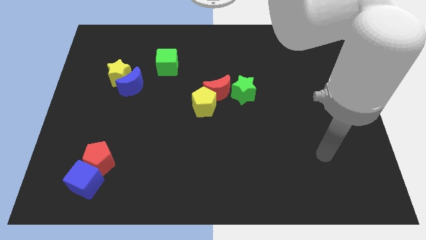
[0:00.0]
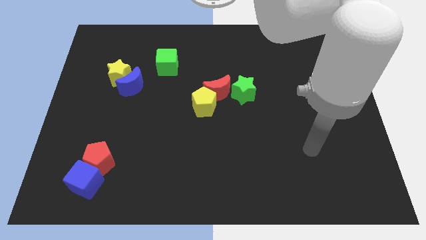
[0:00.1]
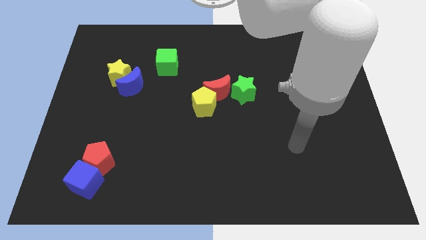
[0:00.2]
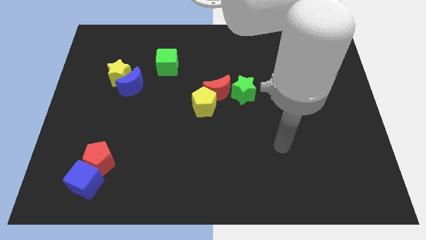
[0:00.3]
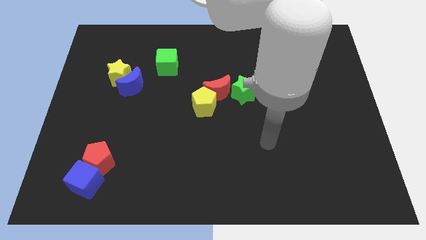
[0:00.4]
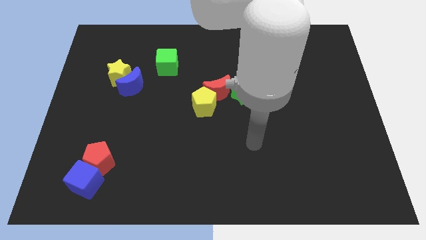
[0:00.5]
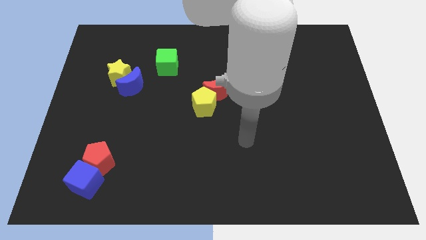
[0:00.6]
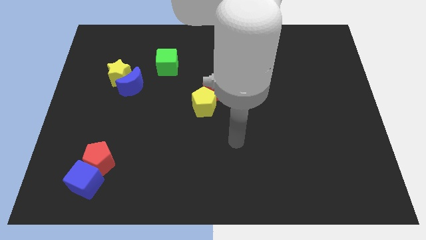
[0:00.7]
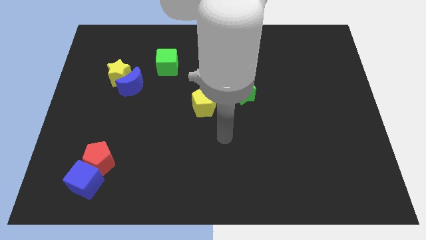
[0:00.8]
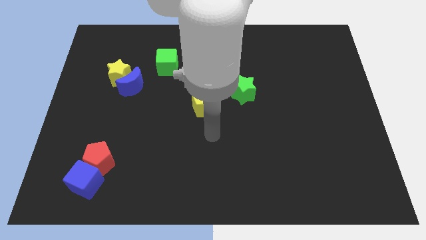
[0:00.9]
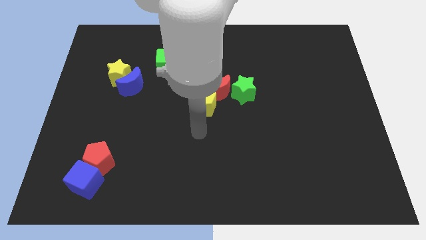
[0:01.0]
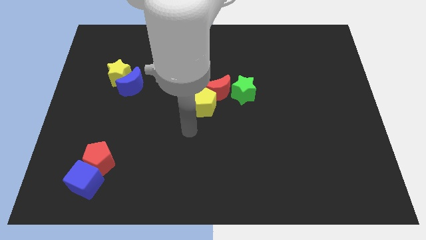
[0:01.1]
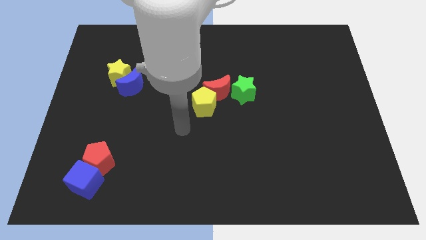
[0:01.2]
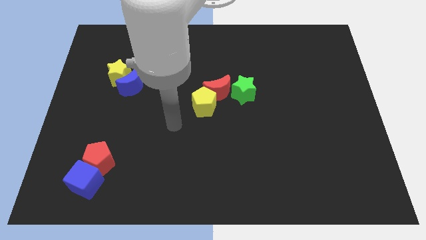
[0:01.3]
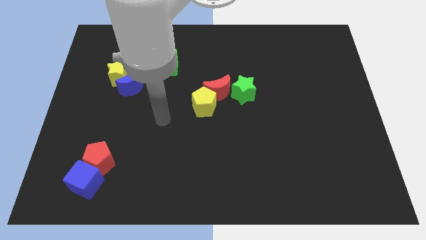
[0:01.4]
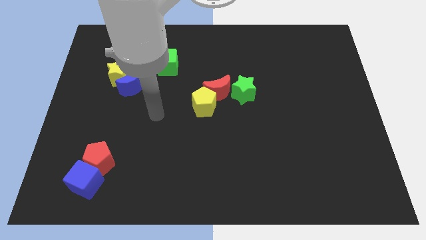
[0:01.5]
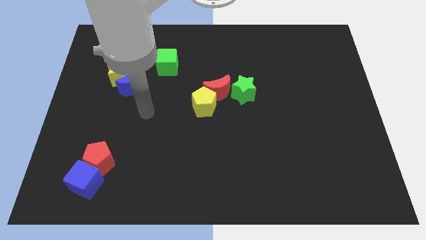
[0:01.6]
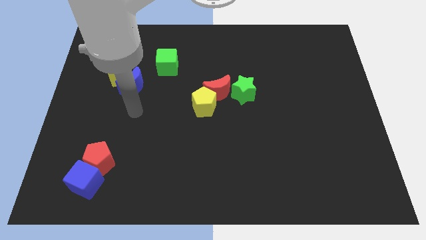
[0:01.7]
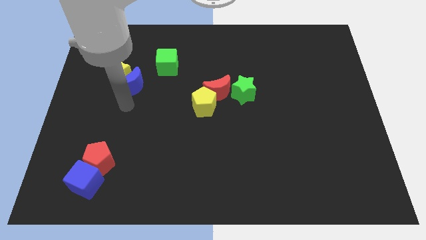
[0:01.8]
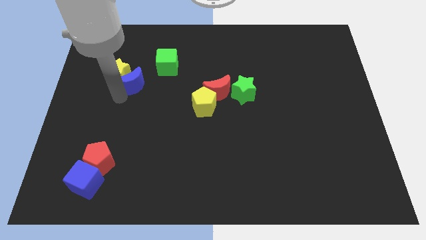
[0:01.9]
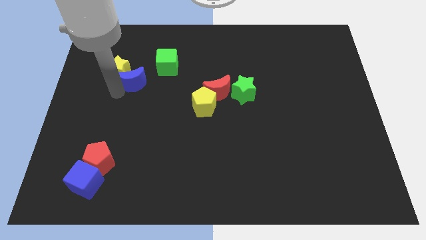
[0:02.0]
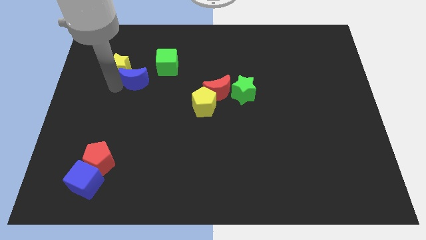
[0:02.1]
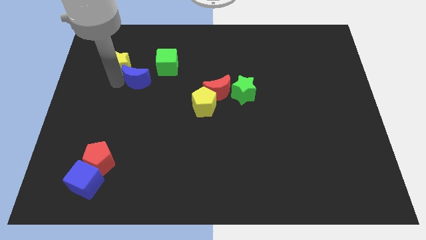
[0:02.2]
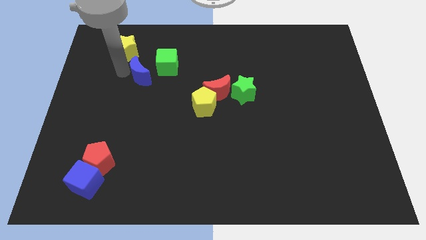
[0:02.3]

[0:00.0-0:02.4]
move the blue moon away from the yellow star

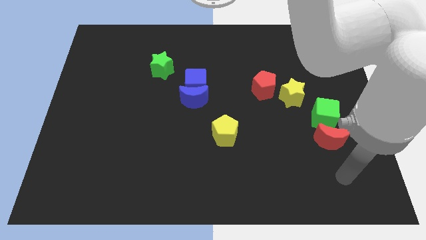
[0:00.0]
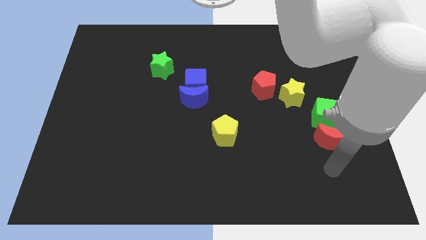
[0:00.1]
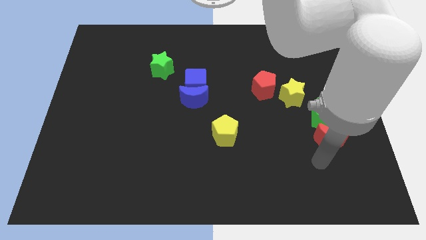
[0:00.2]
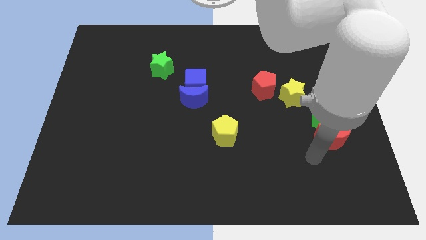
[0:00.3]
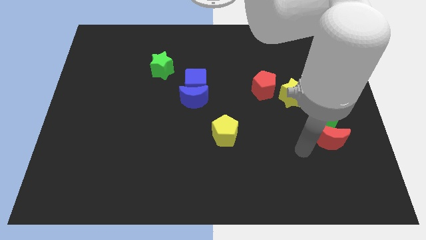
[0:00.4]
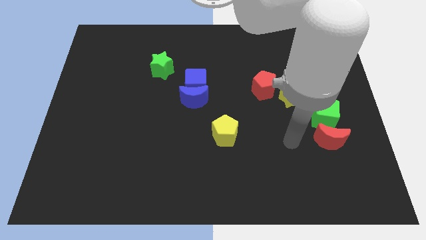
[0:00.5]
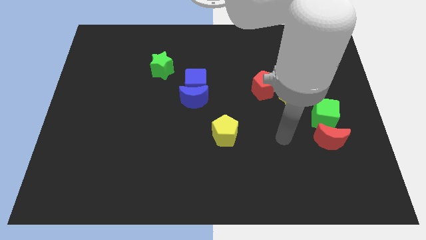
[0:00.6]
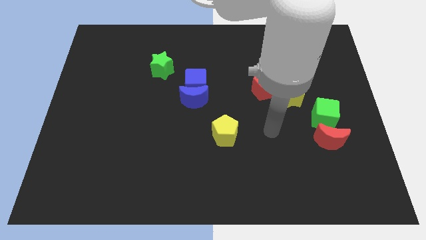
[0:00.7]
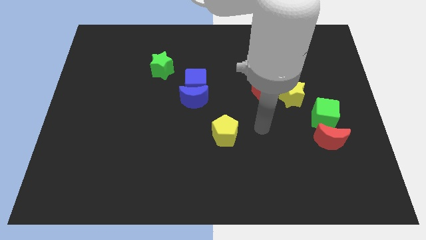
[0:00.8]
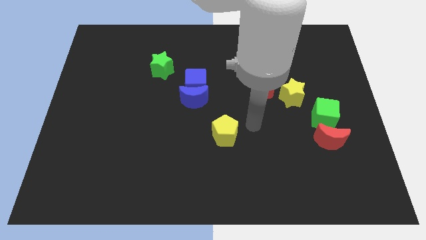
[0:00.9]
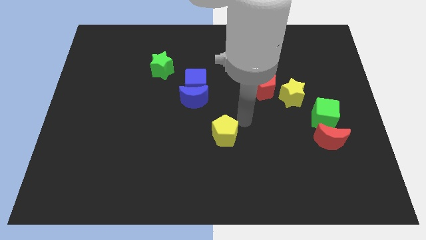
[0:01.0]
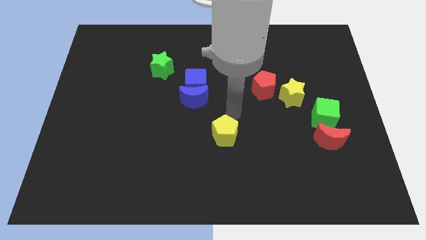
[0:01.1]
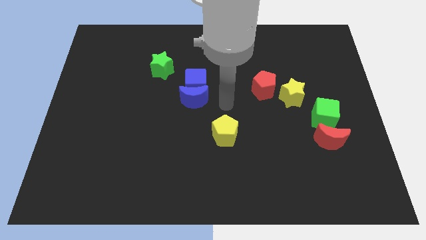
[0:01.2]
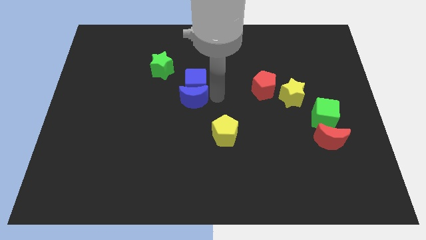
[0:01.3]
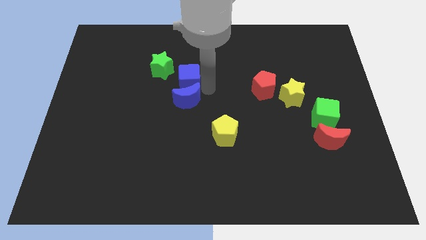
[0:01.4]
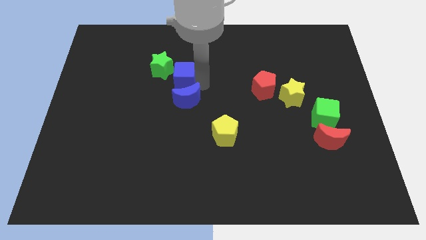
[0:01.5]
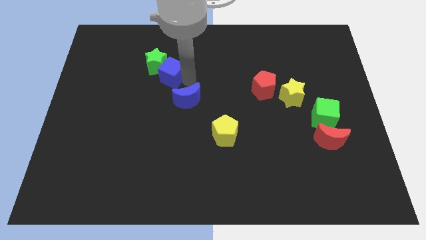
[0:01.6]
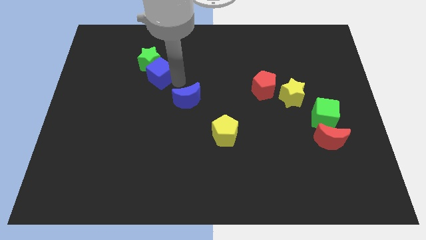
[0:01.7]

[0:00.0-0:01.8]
pull the blue moon apart from the blue cube

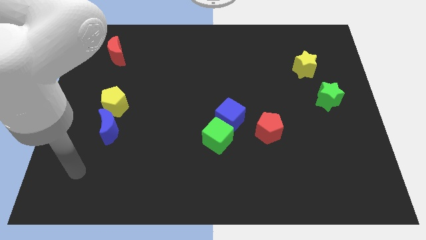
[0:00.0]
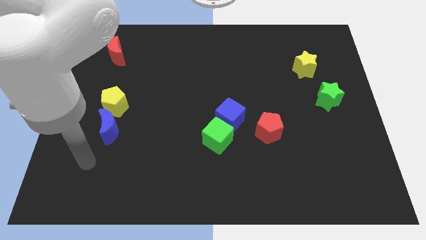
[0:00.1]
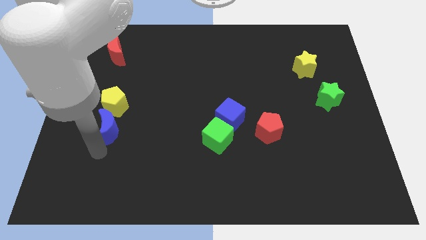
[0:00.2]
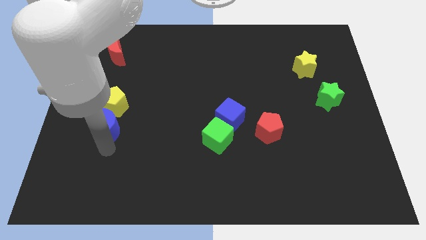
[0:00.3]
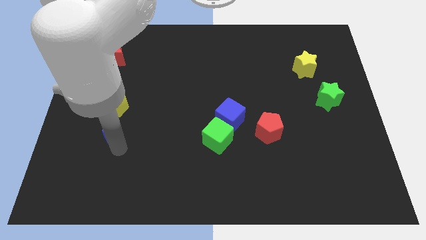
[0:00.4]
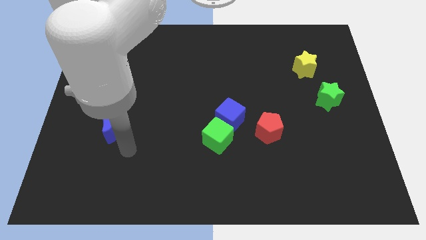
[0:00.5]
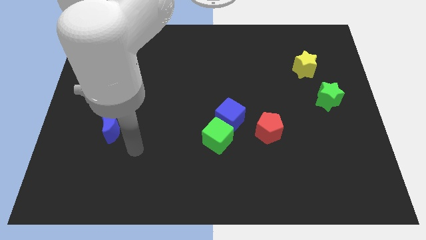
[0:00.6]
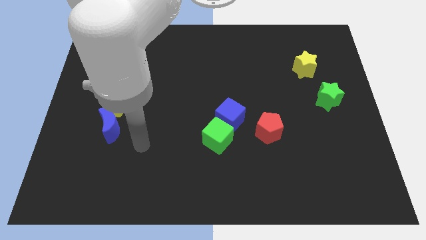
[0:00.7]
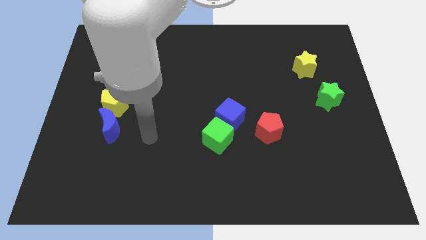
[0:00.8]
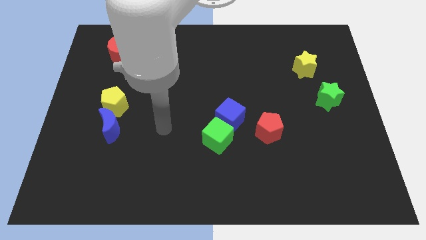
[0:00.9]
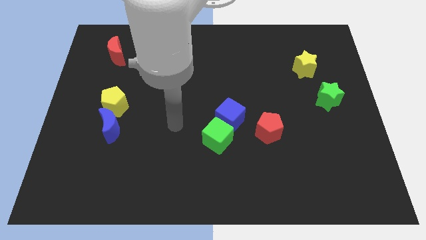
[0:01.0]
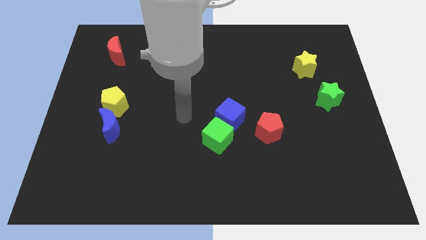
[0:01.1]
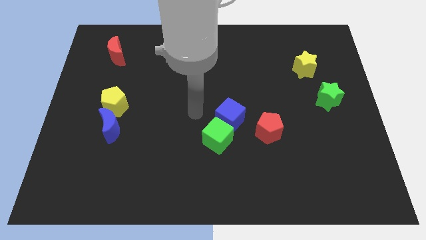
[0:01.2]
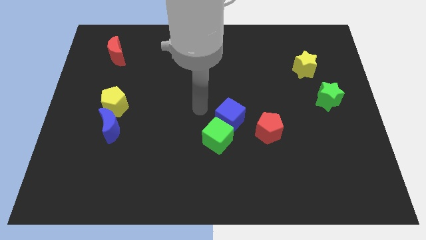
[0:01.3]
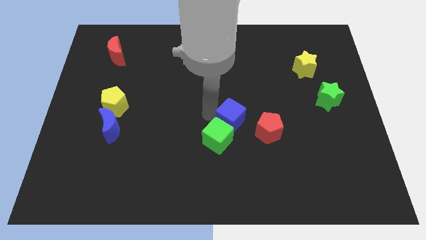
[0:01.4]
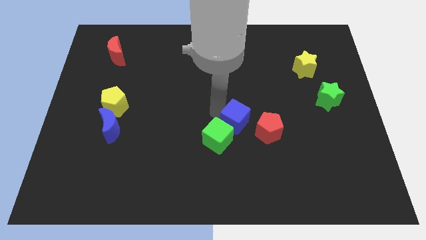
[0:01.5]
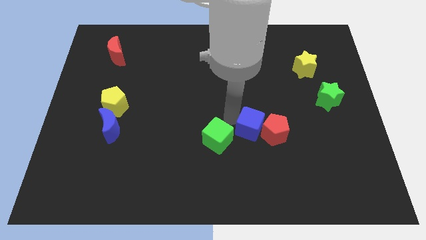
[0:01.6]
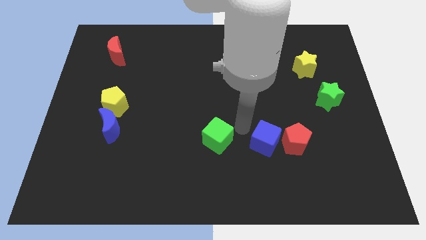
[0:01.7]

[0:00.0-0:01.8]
move the green cube away from the blue cube

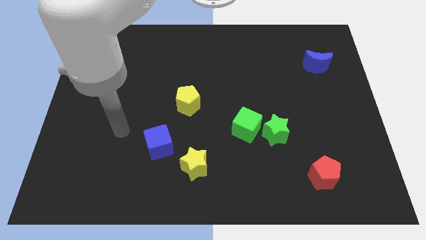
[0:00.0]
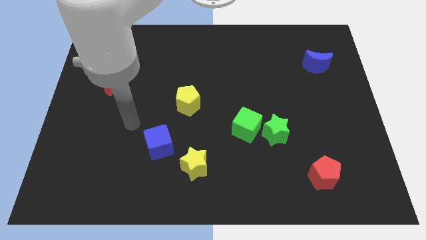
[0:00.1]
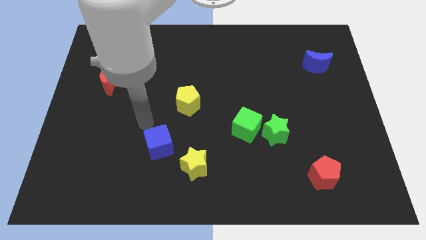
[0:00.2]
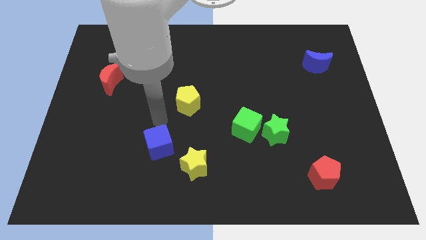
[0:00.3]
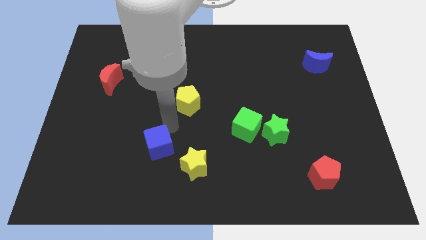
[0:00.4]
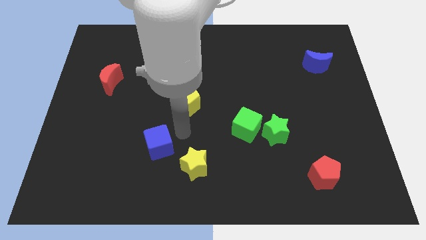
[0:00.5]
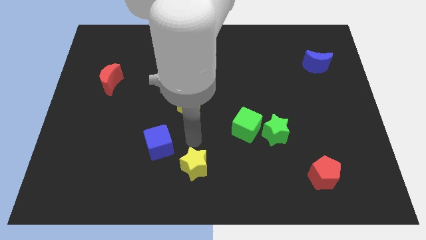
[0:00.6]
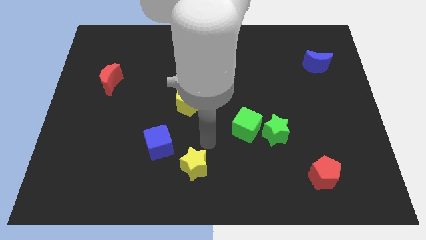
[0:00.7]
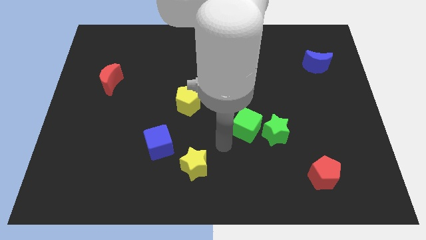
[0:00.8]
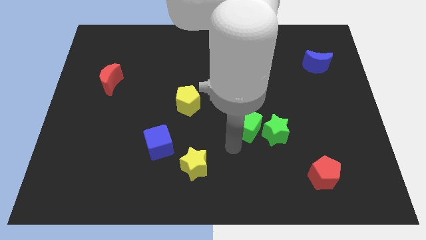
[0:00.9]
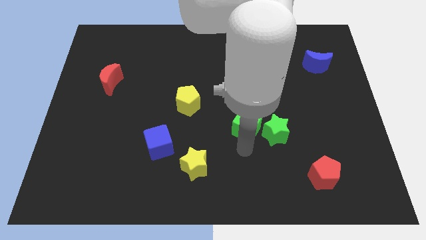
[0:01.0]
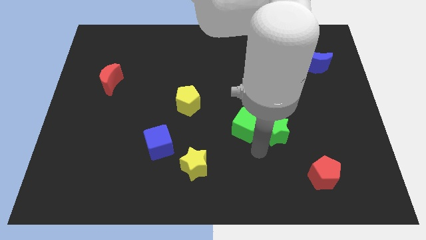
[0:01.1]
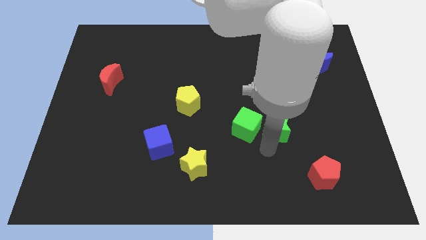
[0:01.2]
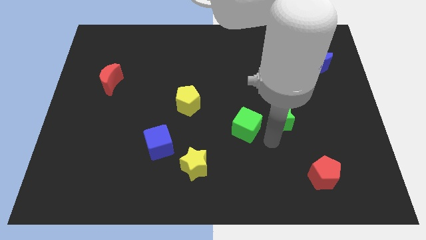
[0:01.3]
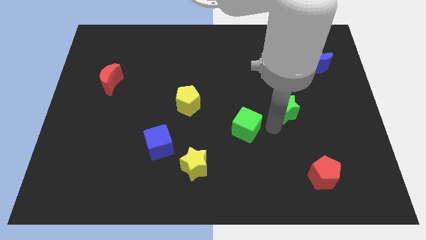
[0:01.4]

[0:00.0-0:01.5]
move the green cube away from the green star

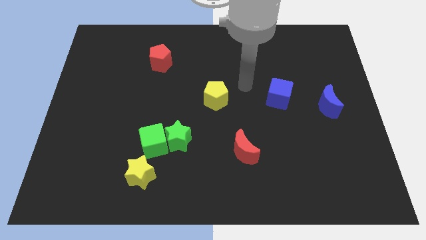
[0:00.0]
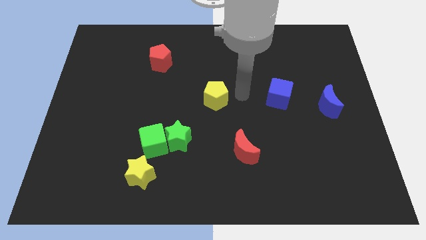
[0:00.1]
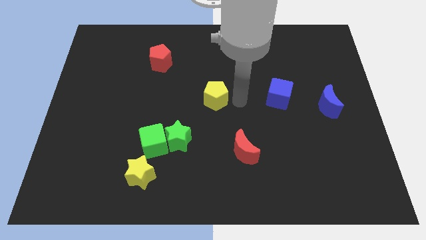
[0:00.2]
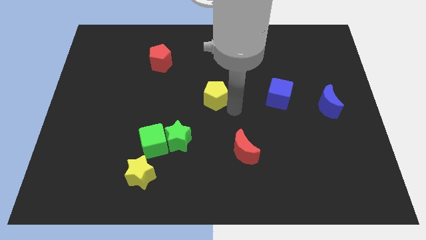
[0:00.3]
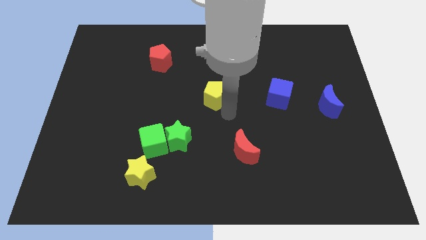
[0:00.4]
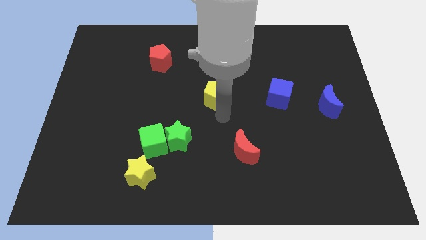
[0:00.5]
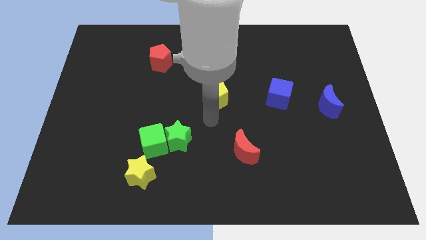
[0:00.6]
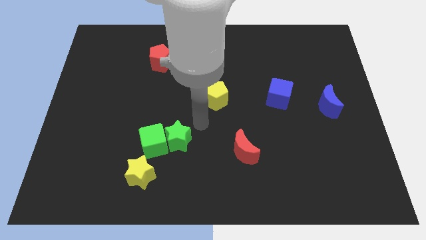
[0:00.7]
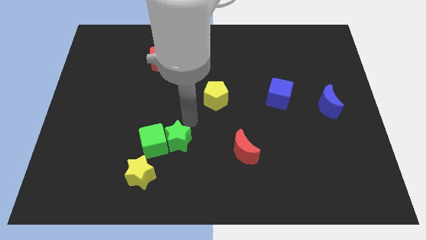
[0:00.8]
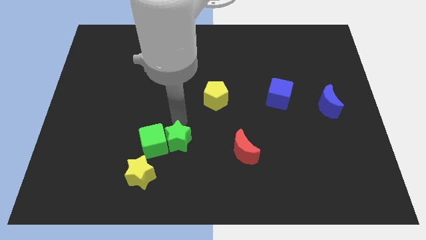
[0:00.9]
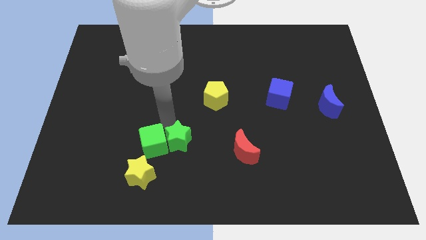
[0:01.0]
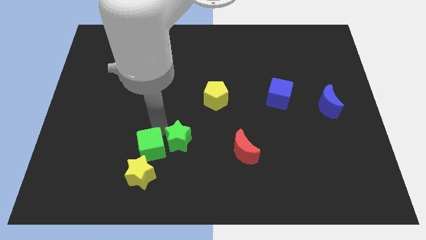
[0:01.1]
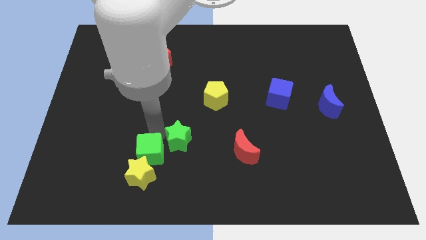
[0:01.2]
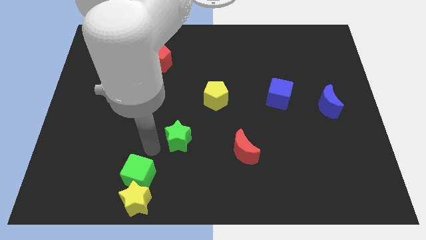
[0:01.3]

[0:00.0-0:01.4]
pull the green star apart from the green cube

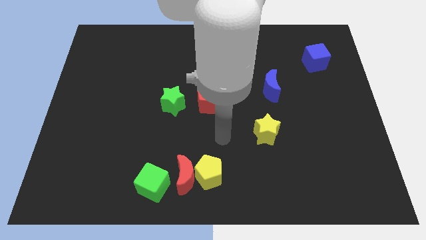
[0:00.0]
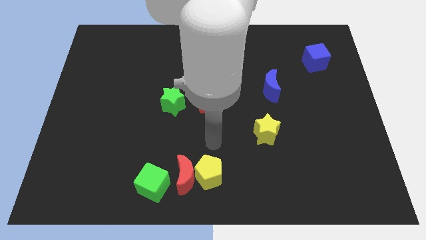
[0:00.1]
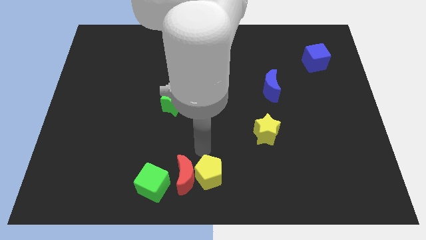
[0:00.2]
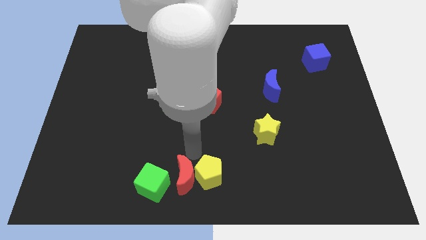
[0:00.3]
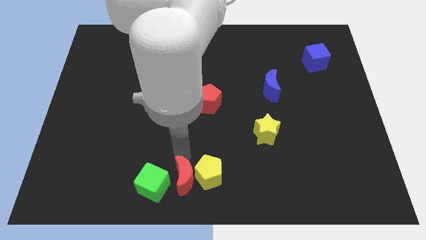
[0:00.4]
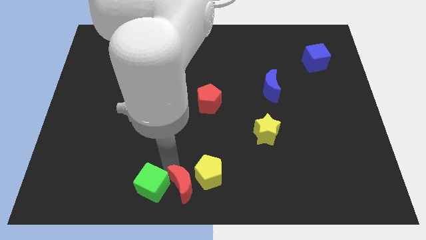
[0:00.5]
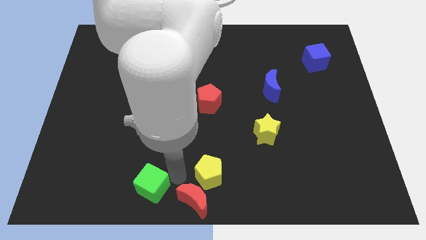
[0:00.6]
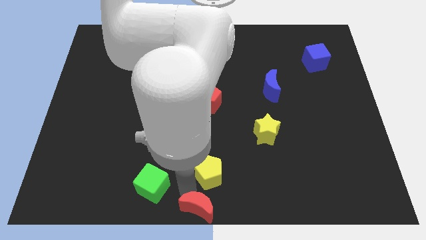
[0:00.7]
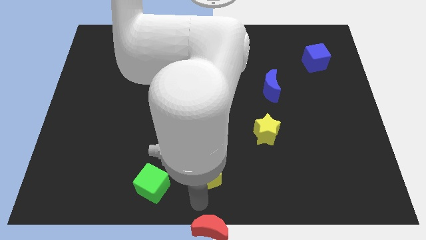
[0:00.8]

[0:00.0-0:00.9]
move the yellow pentagon away from the red moon
